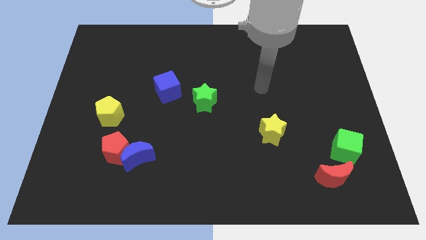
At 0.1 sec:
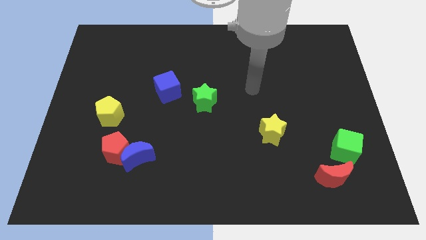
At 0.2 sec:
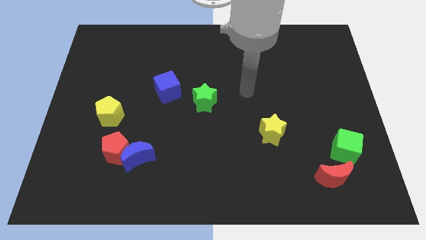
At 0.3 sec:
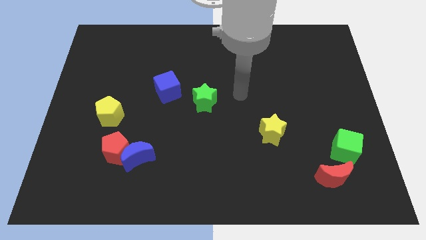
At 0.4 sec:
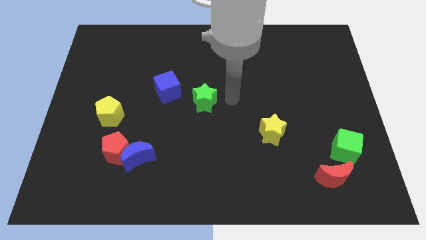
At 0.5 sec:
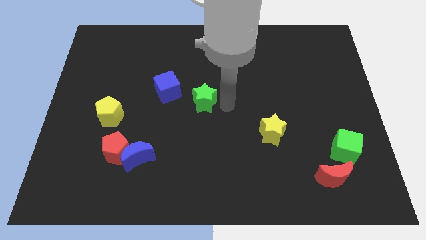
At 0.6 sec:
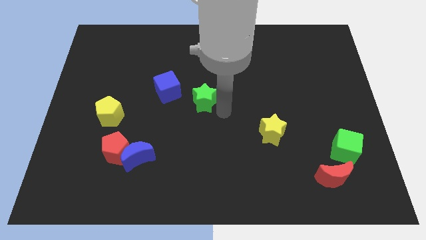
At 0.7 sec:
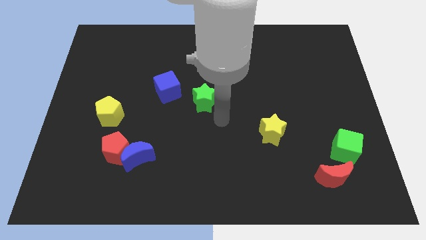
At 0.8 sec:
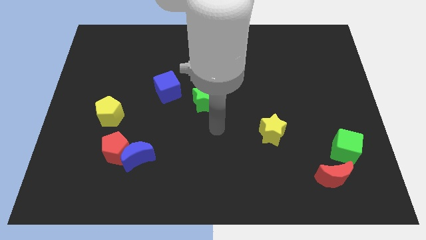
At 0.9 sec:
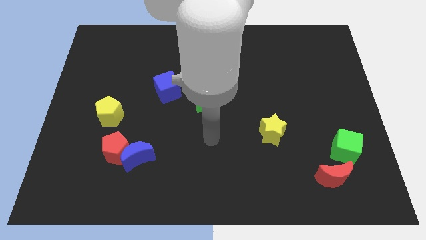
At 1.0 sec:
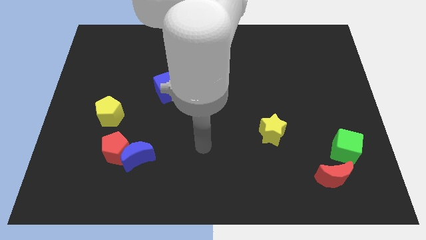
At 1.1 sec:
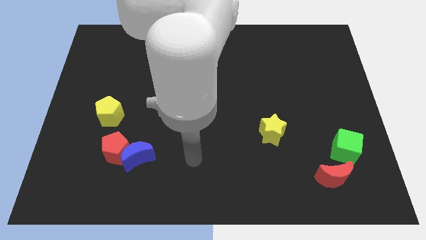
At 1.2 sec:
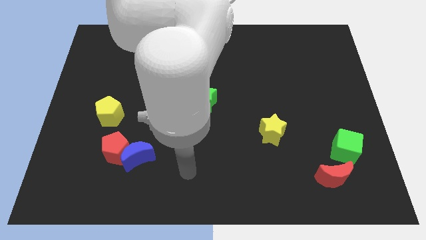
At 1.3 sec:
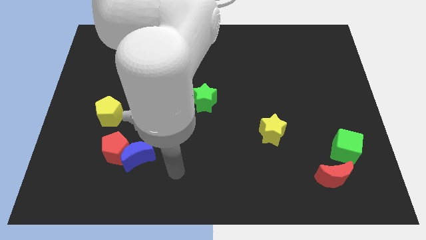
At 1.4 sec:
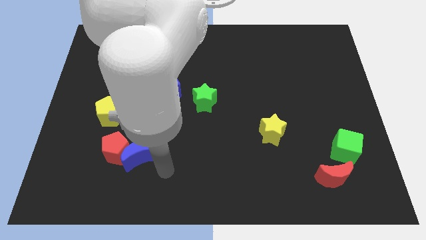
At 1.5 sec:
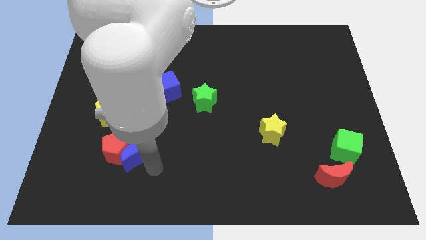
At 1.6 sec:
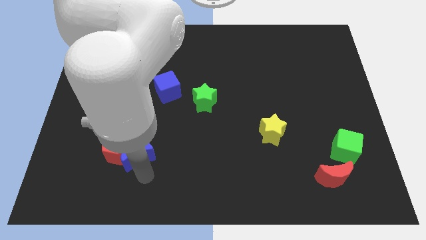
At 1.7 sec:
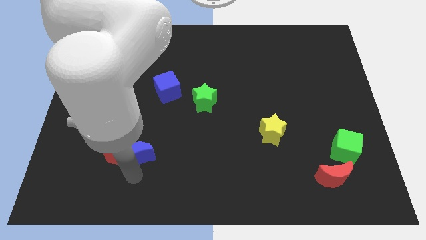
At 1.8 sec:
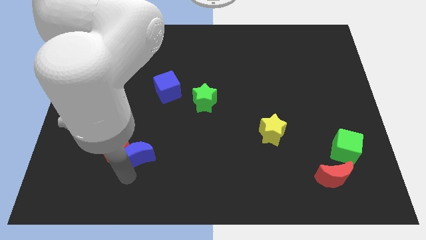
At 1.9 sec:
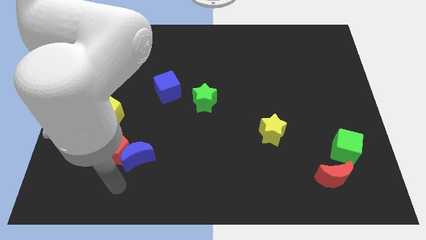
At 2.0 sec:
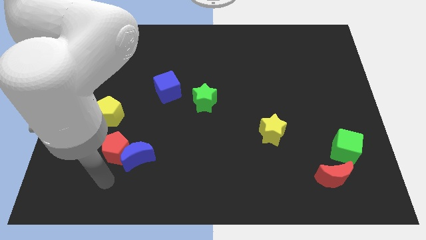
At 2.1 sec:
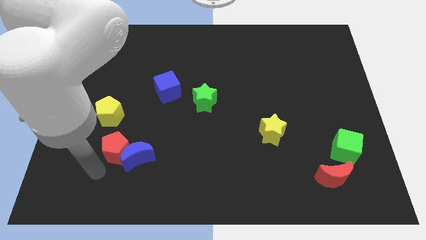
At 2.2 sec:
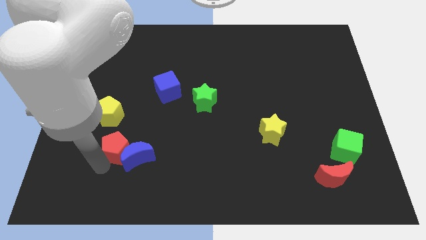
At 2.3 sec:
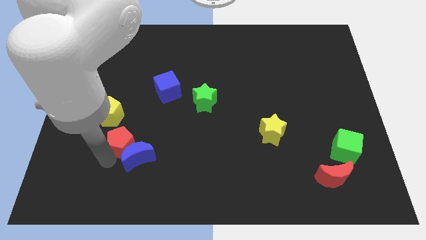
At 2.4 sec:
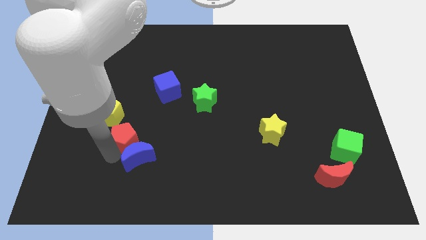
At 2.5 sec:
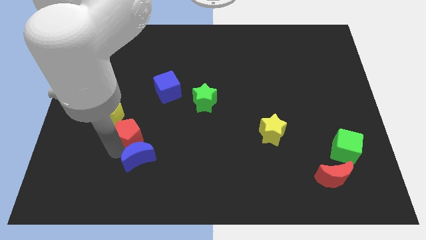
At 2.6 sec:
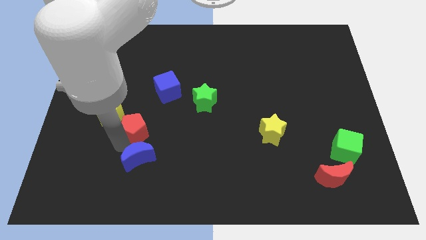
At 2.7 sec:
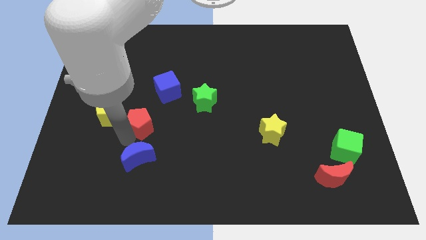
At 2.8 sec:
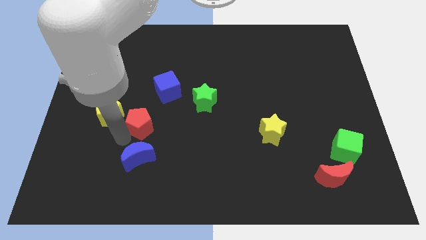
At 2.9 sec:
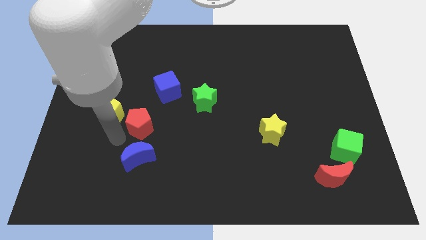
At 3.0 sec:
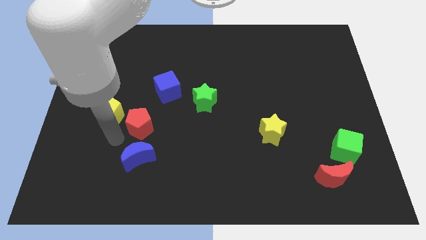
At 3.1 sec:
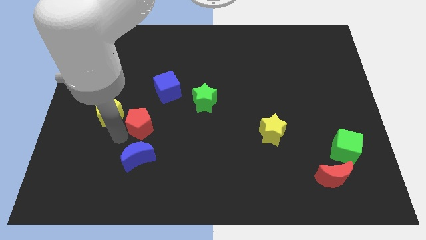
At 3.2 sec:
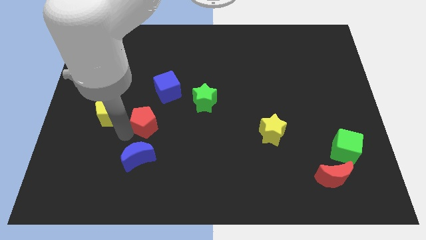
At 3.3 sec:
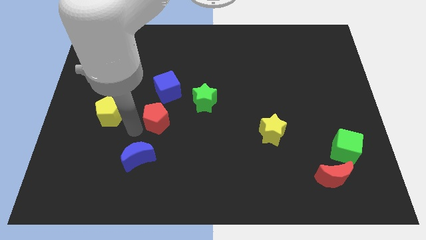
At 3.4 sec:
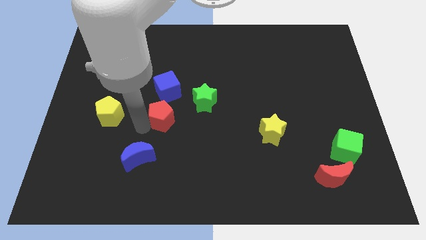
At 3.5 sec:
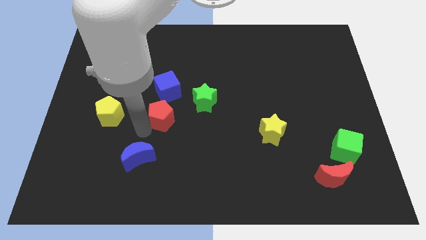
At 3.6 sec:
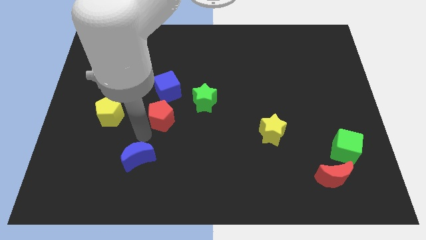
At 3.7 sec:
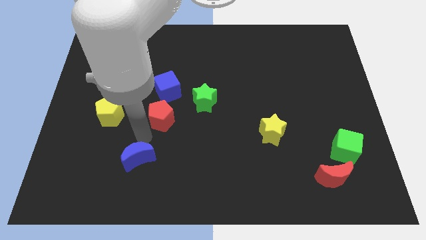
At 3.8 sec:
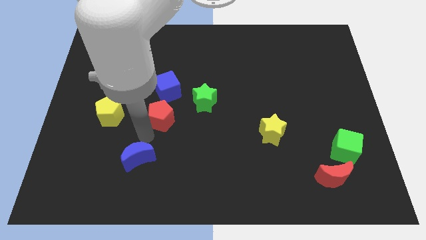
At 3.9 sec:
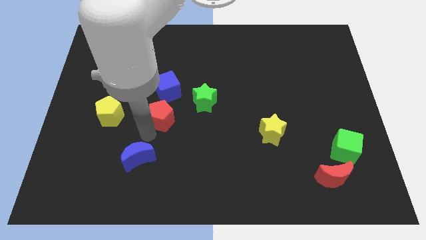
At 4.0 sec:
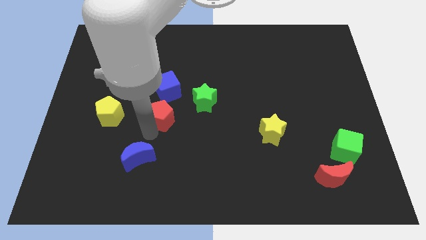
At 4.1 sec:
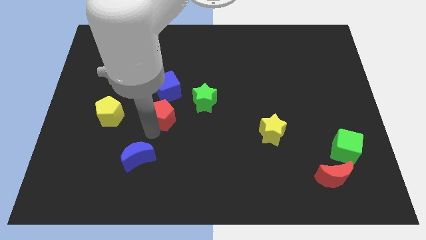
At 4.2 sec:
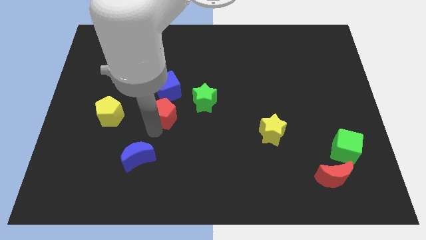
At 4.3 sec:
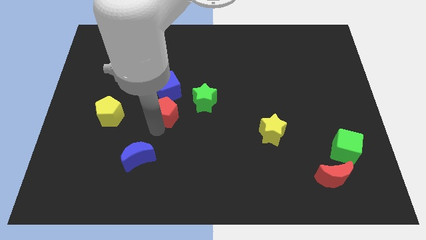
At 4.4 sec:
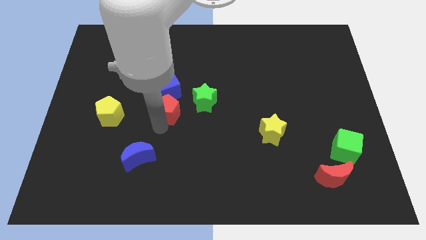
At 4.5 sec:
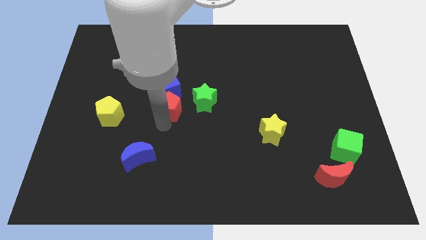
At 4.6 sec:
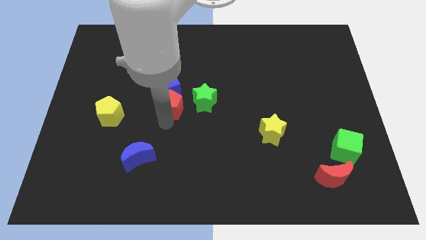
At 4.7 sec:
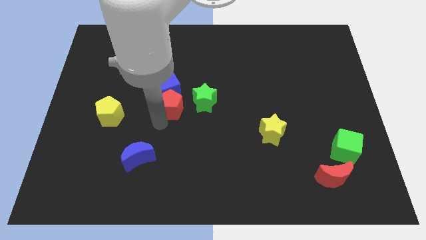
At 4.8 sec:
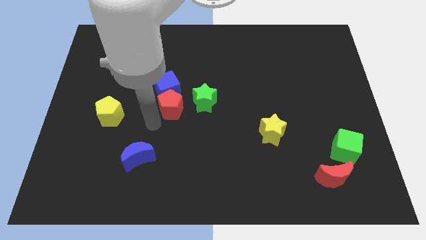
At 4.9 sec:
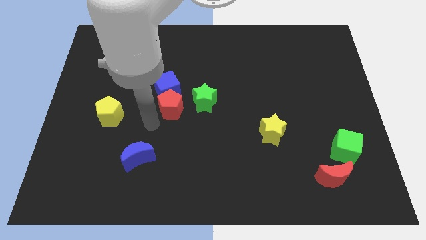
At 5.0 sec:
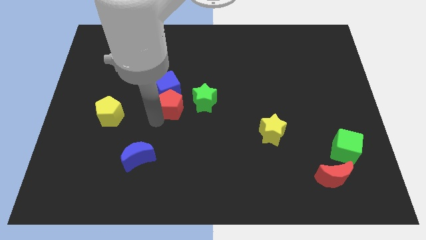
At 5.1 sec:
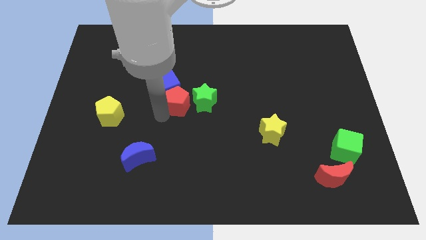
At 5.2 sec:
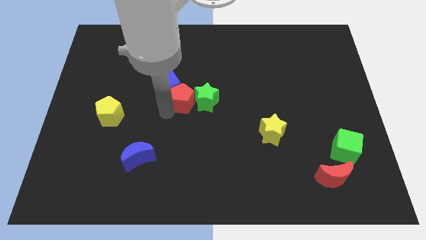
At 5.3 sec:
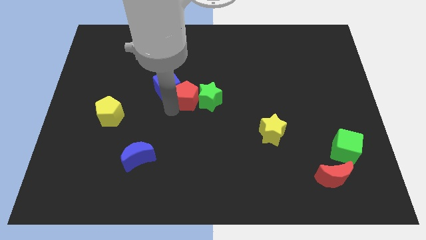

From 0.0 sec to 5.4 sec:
slide the red pentagon diagonally up and right

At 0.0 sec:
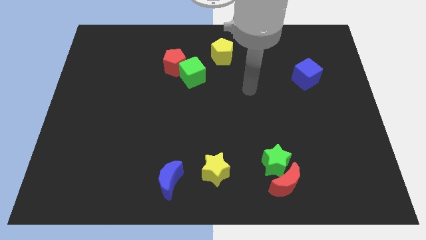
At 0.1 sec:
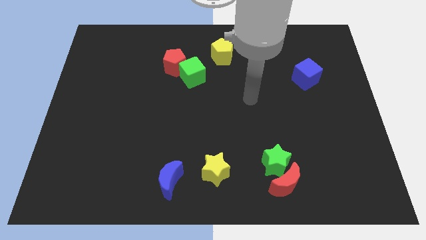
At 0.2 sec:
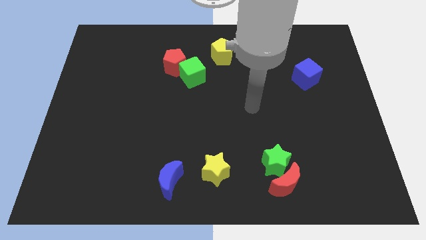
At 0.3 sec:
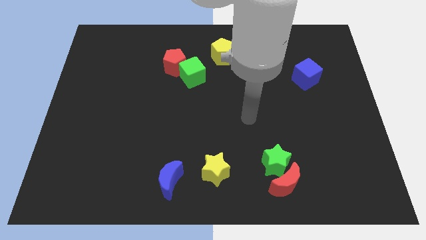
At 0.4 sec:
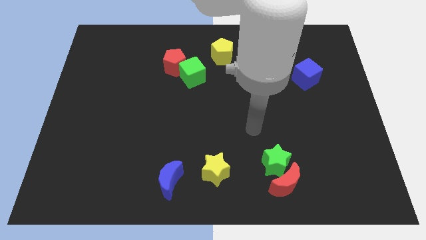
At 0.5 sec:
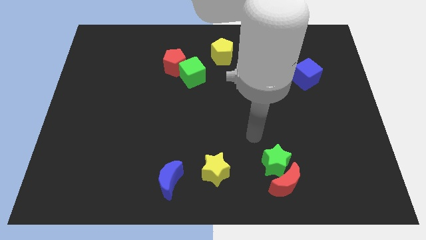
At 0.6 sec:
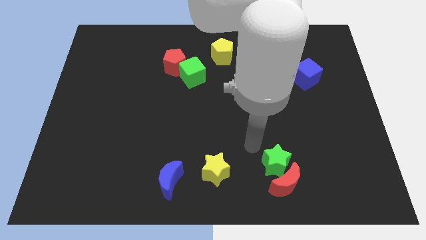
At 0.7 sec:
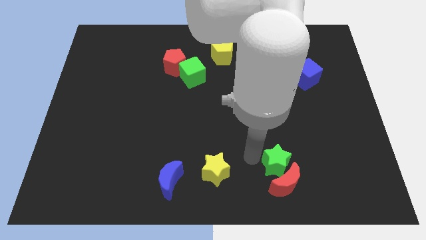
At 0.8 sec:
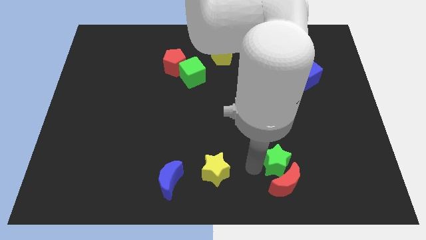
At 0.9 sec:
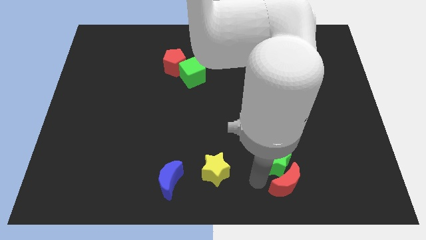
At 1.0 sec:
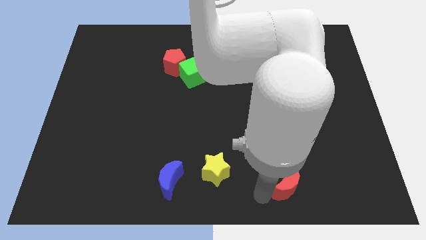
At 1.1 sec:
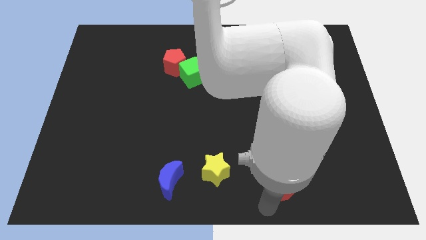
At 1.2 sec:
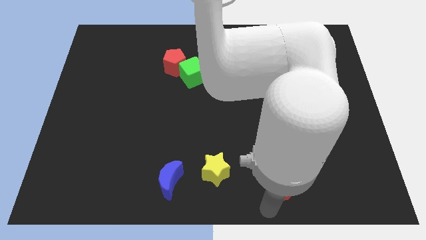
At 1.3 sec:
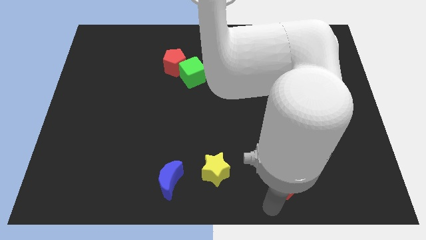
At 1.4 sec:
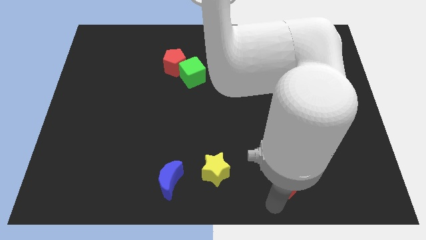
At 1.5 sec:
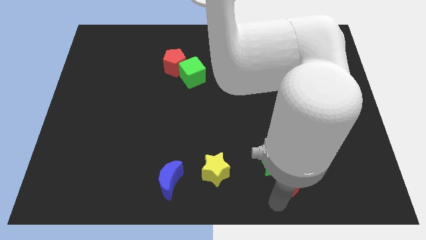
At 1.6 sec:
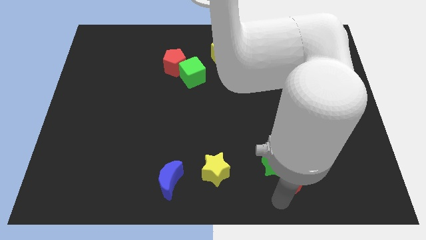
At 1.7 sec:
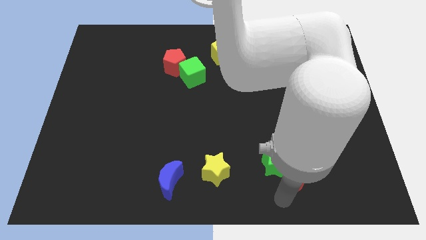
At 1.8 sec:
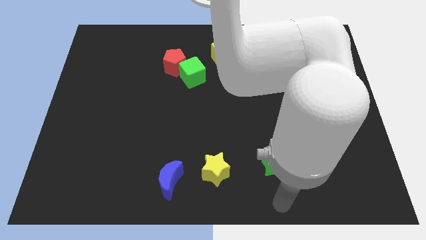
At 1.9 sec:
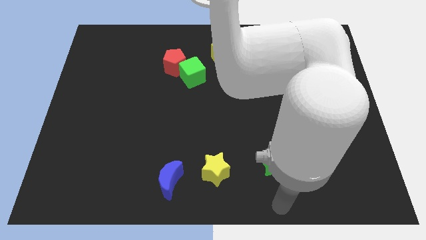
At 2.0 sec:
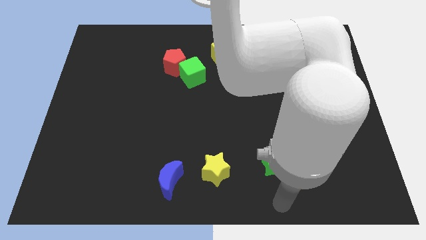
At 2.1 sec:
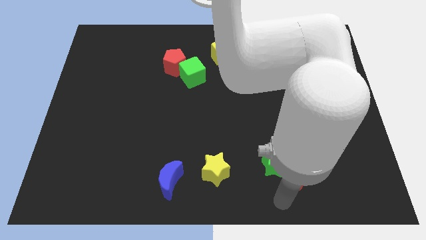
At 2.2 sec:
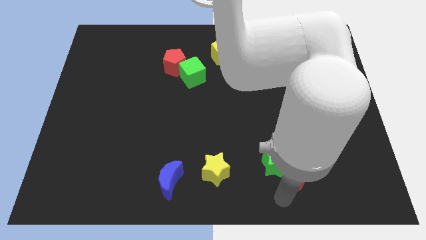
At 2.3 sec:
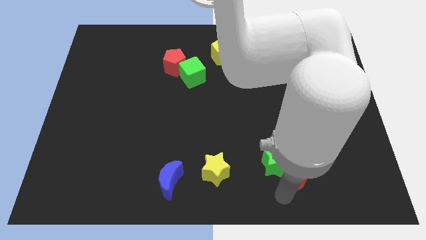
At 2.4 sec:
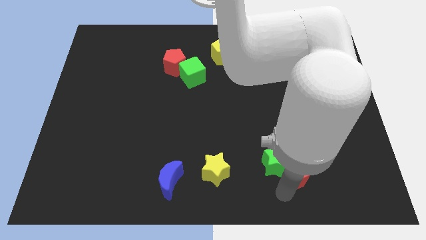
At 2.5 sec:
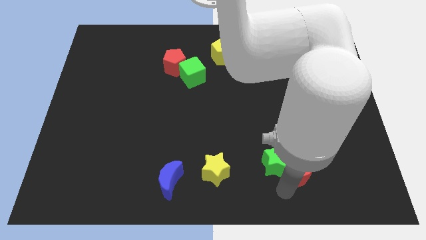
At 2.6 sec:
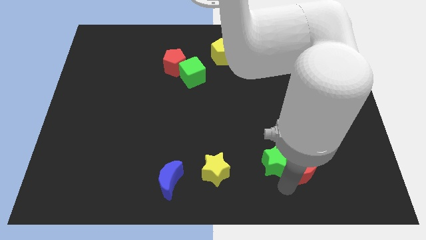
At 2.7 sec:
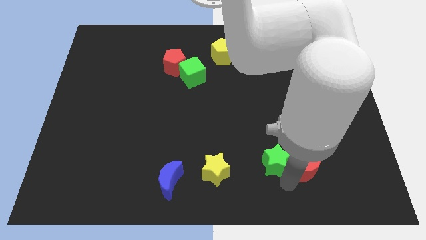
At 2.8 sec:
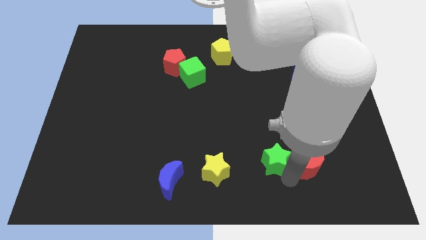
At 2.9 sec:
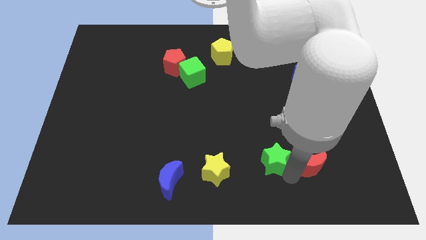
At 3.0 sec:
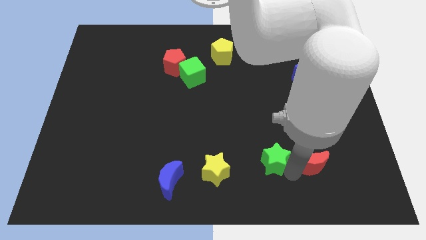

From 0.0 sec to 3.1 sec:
move the red moon up and right a little
